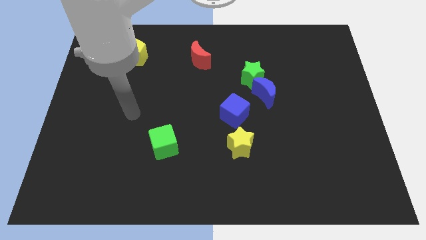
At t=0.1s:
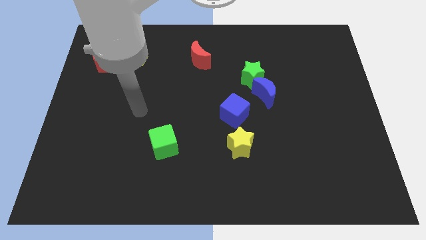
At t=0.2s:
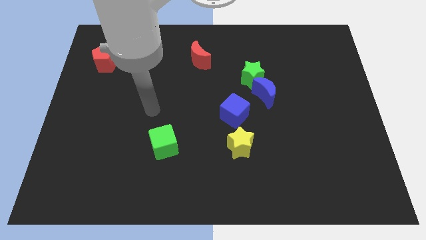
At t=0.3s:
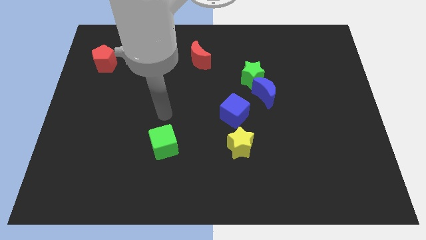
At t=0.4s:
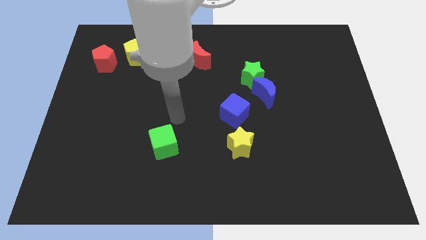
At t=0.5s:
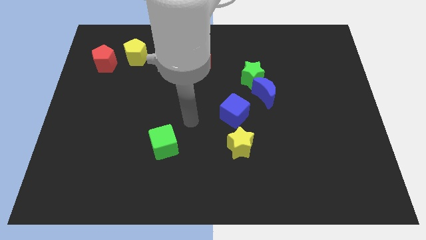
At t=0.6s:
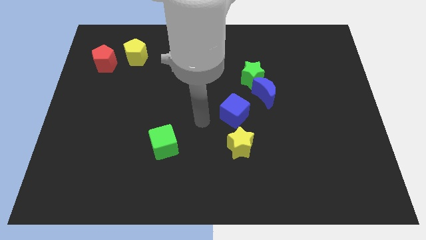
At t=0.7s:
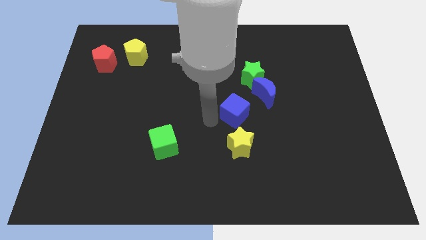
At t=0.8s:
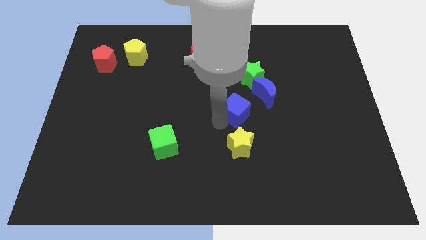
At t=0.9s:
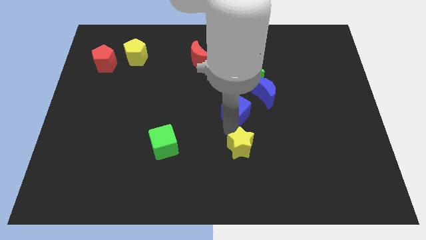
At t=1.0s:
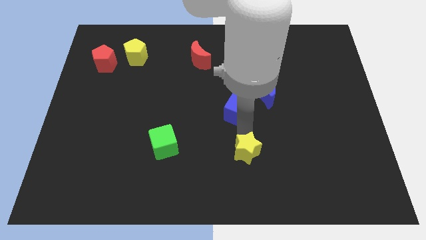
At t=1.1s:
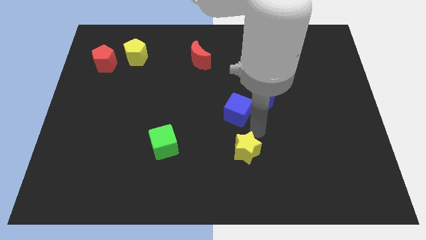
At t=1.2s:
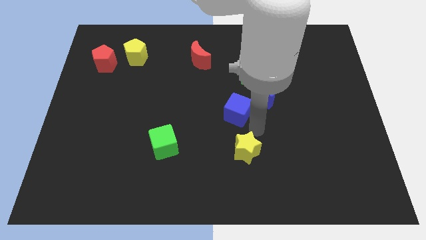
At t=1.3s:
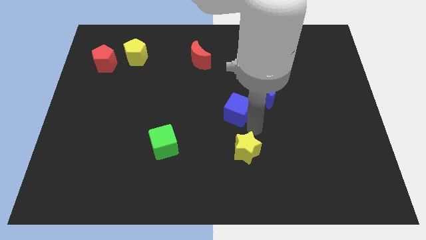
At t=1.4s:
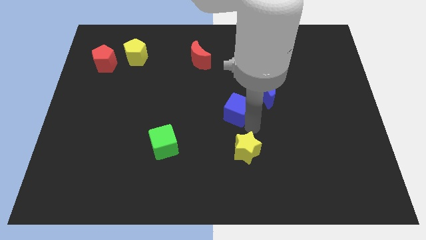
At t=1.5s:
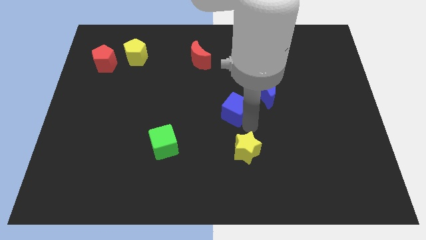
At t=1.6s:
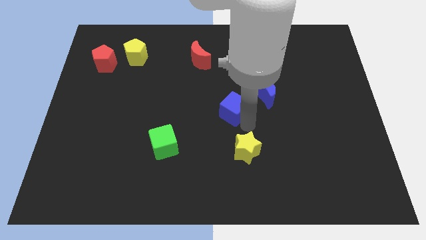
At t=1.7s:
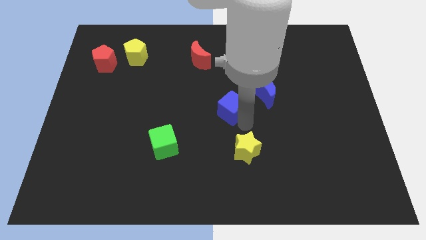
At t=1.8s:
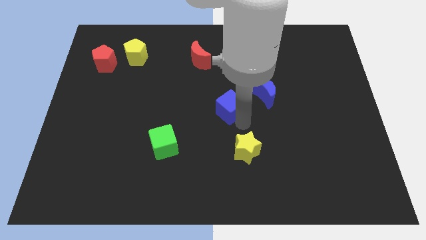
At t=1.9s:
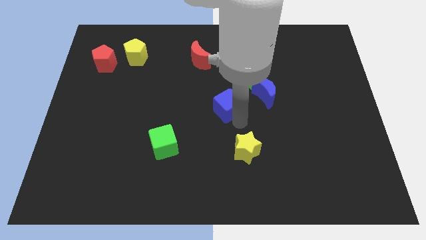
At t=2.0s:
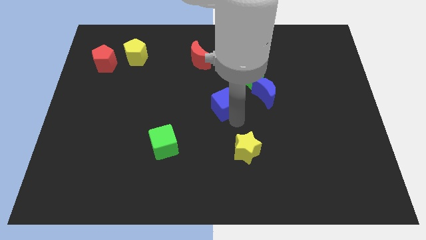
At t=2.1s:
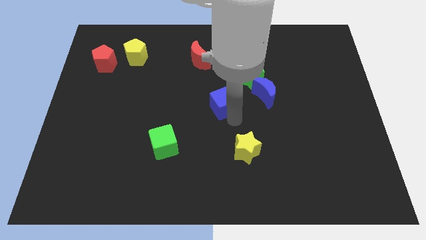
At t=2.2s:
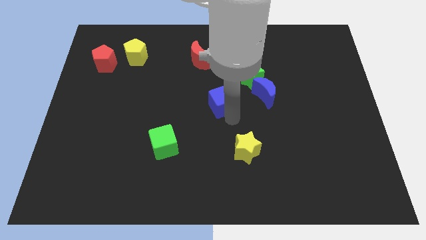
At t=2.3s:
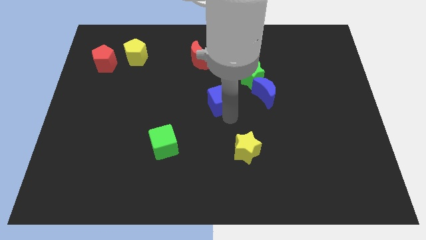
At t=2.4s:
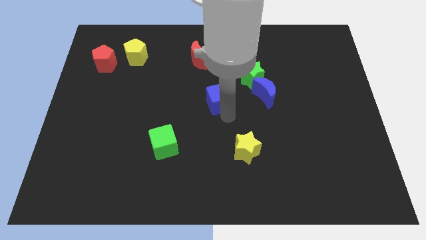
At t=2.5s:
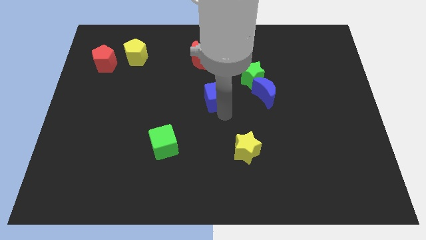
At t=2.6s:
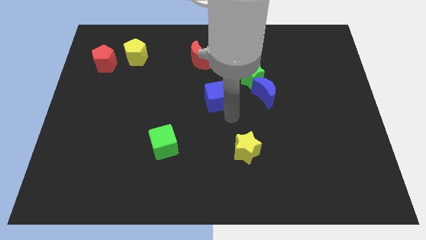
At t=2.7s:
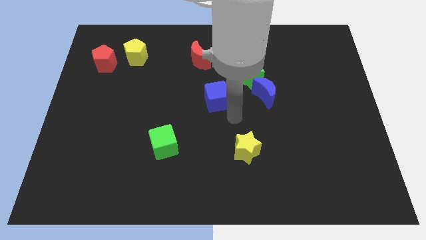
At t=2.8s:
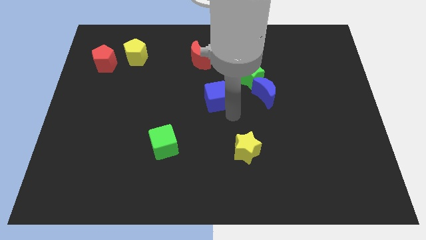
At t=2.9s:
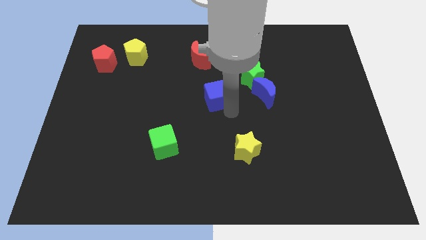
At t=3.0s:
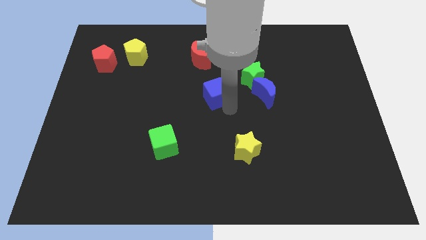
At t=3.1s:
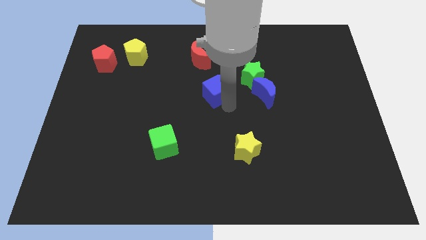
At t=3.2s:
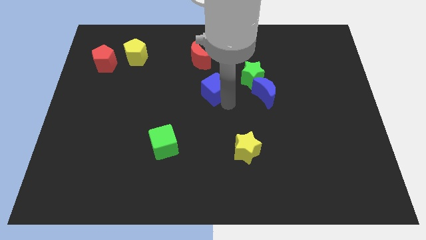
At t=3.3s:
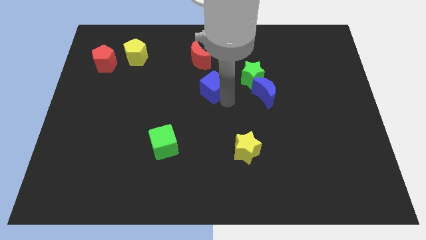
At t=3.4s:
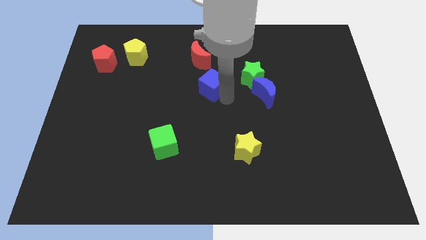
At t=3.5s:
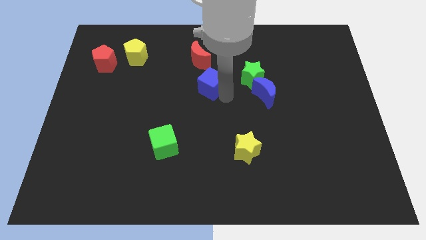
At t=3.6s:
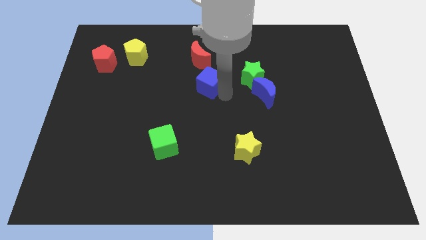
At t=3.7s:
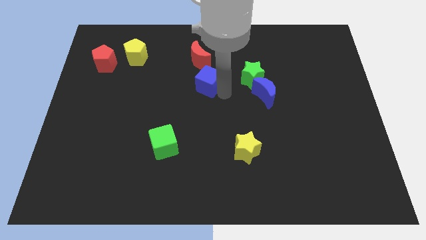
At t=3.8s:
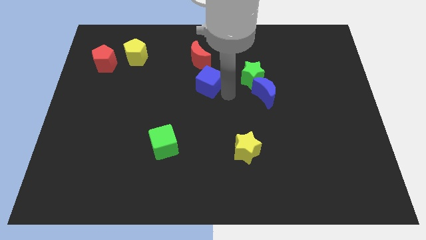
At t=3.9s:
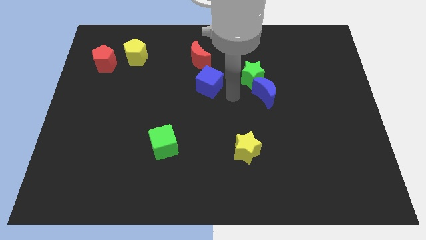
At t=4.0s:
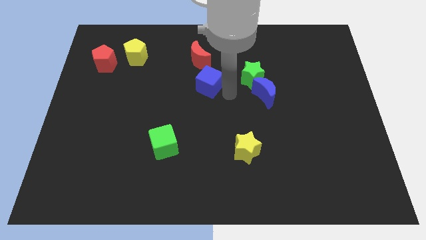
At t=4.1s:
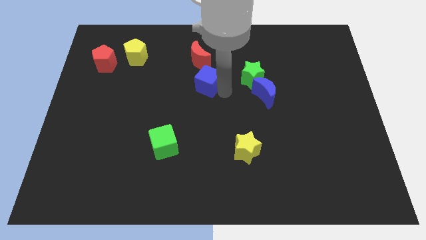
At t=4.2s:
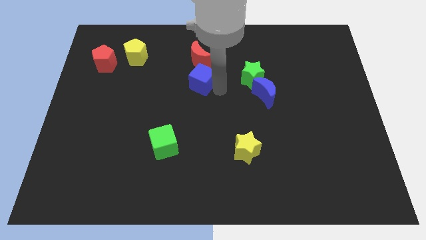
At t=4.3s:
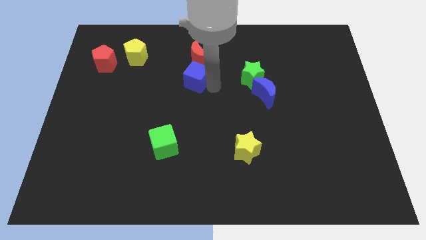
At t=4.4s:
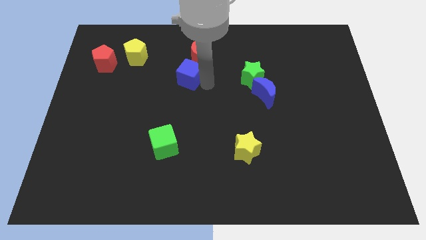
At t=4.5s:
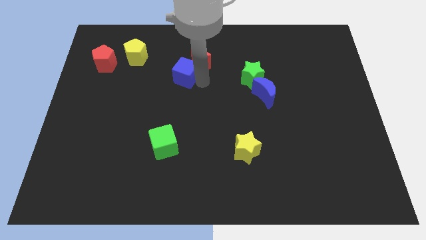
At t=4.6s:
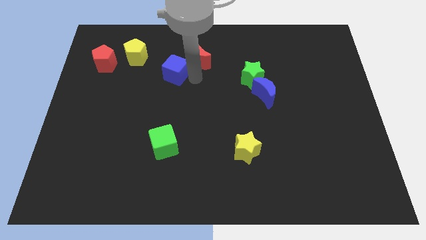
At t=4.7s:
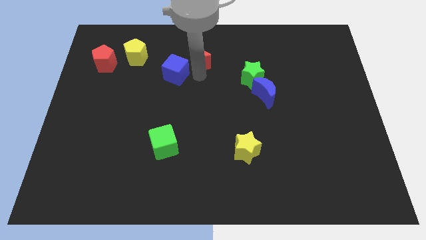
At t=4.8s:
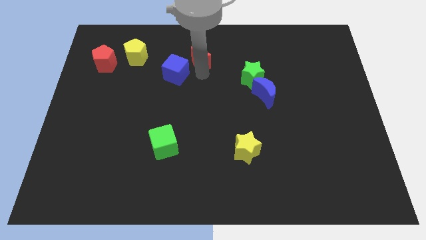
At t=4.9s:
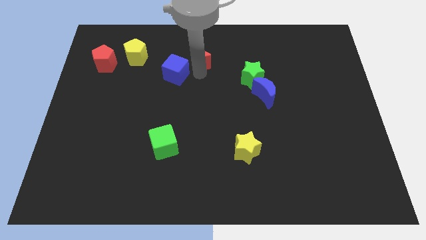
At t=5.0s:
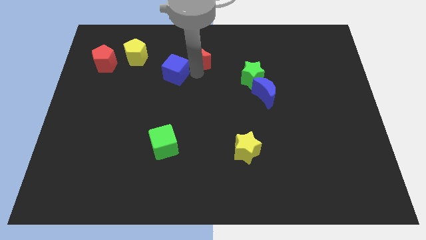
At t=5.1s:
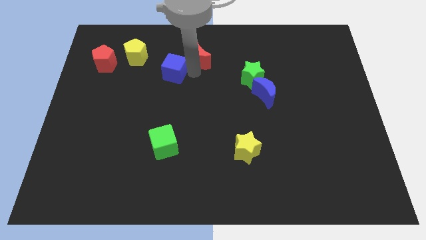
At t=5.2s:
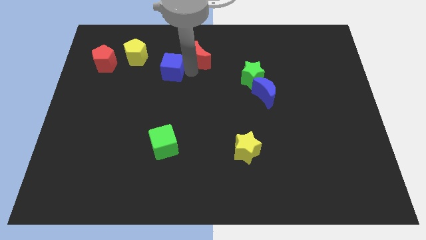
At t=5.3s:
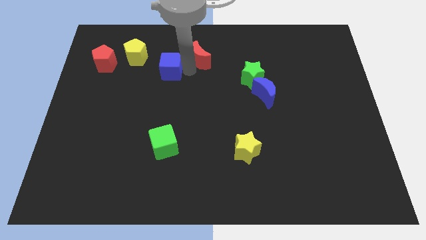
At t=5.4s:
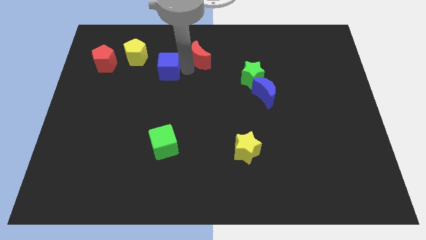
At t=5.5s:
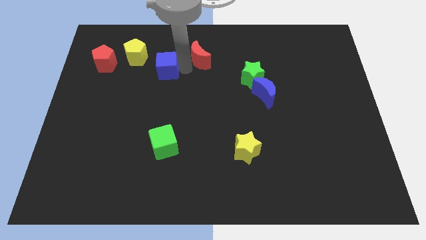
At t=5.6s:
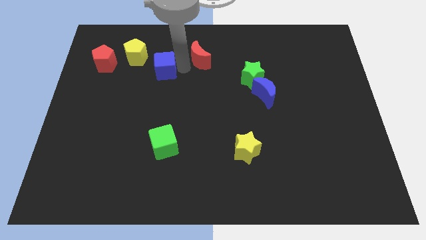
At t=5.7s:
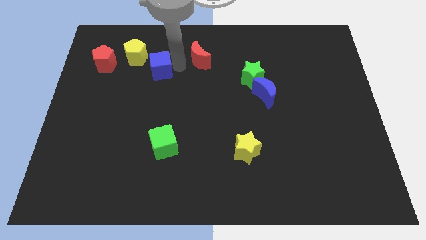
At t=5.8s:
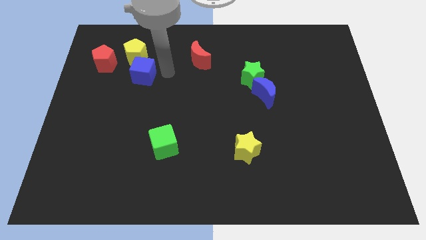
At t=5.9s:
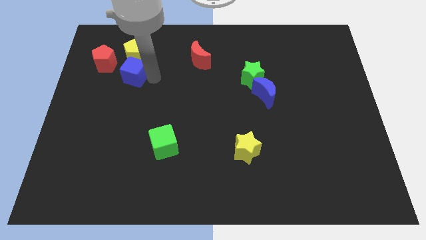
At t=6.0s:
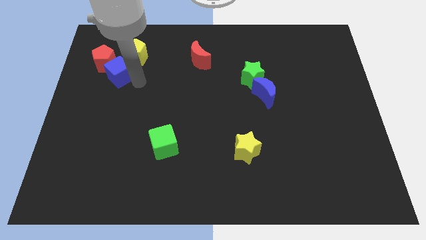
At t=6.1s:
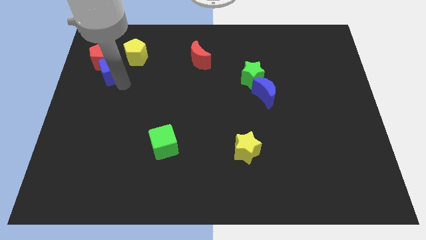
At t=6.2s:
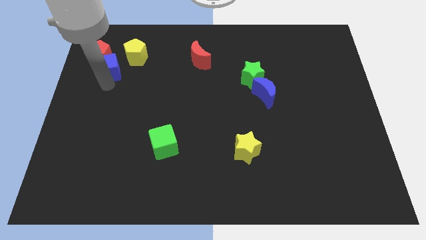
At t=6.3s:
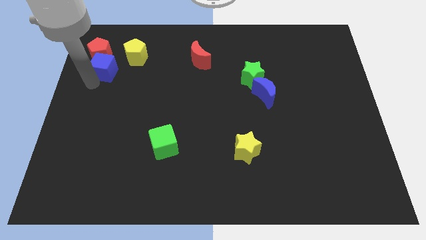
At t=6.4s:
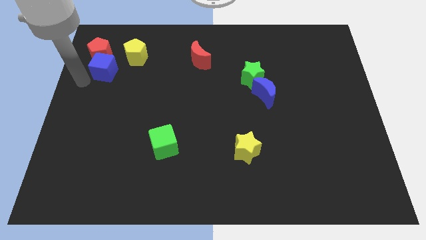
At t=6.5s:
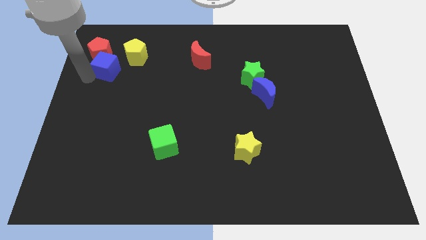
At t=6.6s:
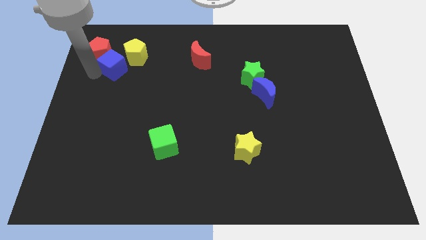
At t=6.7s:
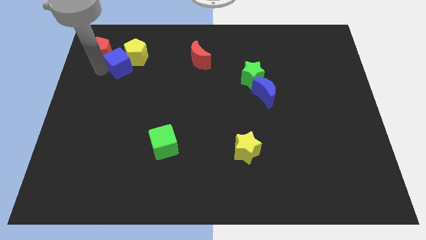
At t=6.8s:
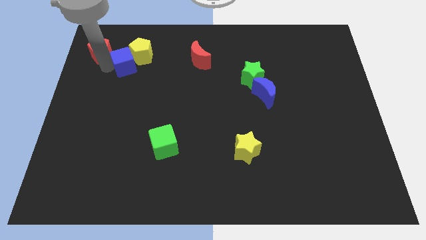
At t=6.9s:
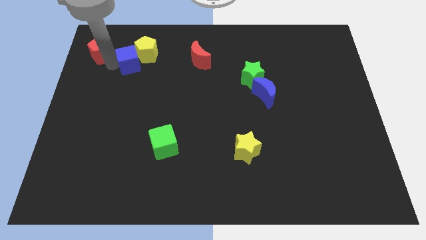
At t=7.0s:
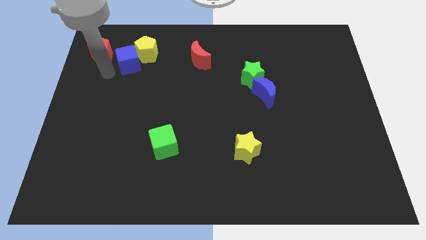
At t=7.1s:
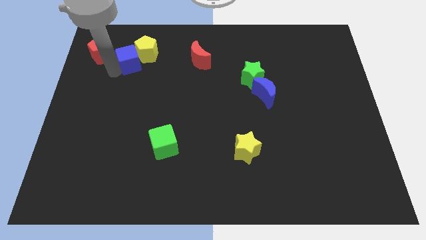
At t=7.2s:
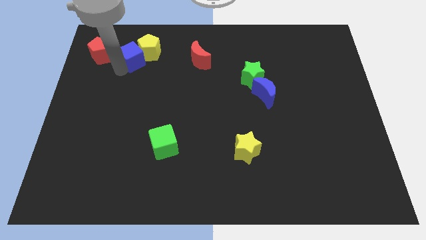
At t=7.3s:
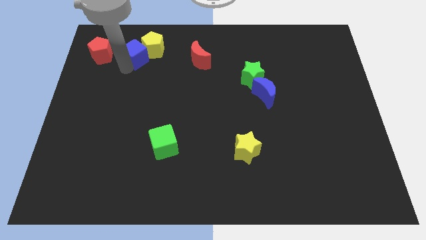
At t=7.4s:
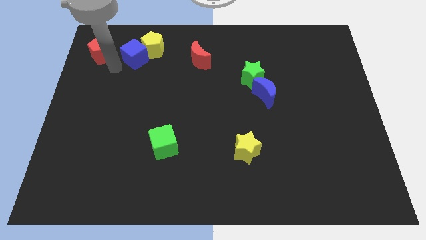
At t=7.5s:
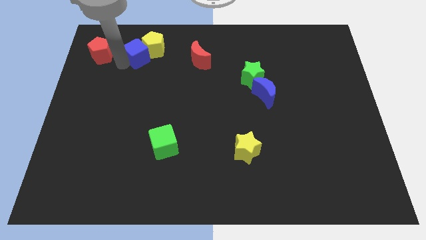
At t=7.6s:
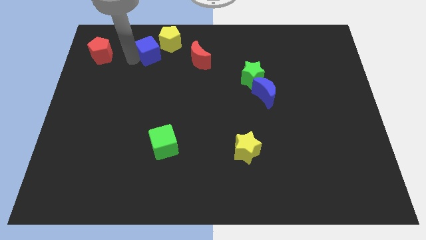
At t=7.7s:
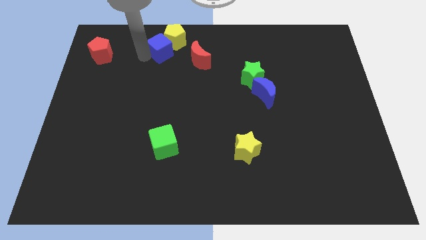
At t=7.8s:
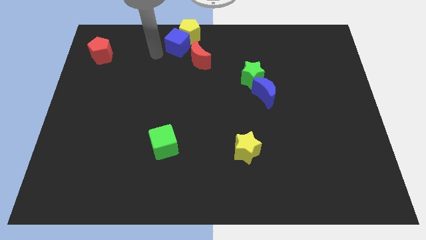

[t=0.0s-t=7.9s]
push the blue cube to the towards your base
